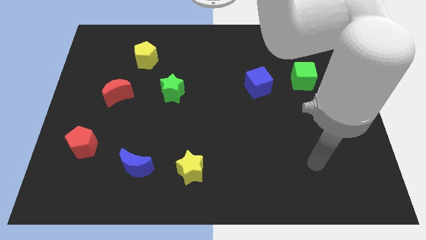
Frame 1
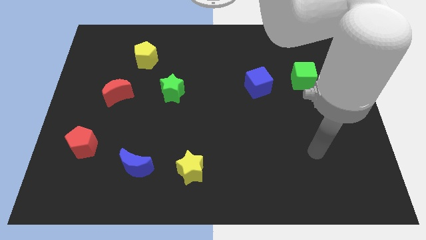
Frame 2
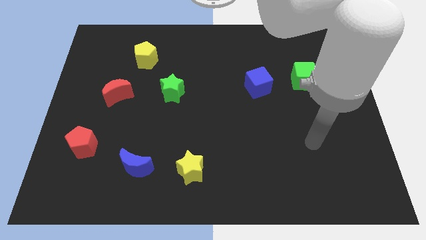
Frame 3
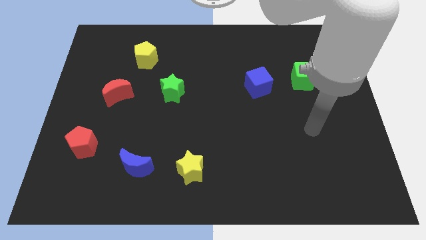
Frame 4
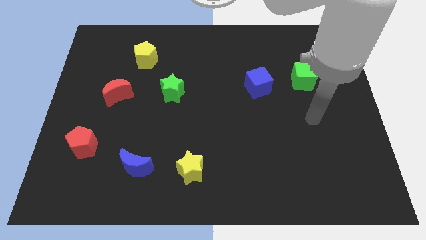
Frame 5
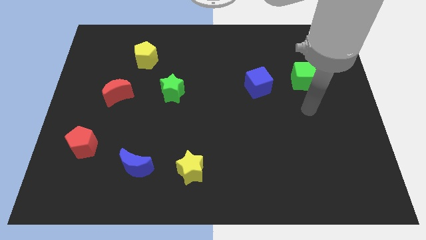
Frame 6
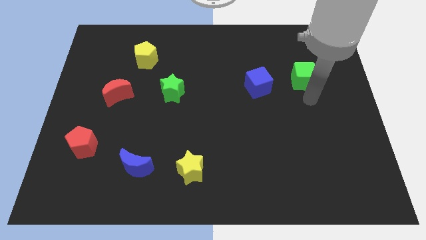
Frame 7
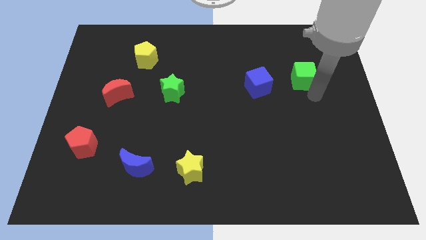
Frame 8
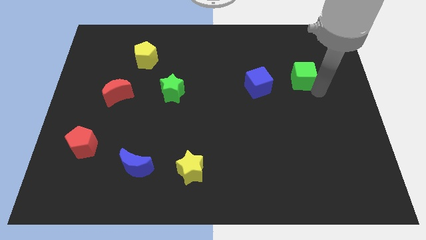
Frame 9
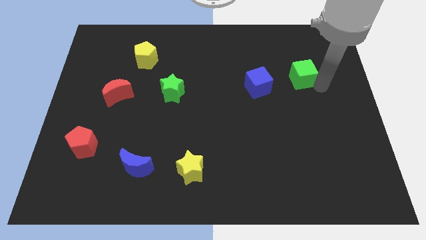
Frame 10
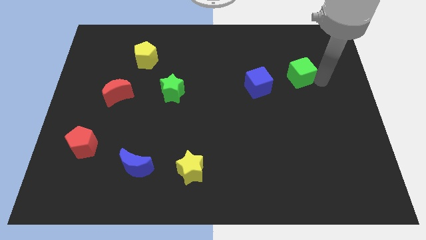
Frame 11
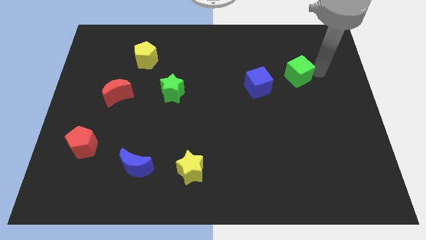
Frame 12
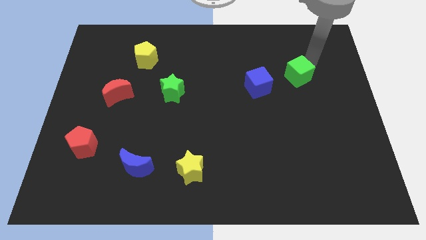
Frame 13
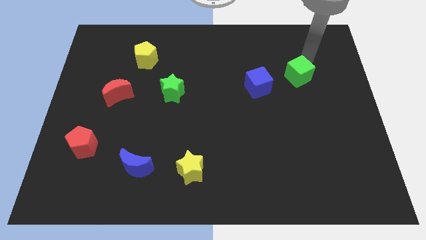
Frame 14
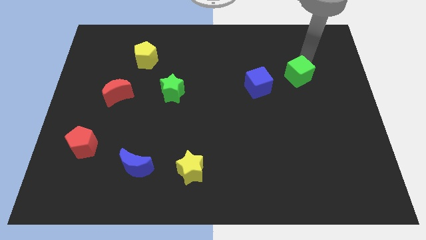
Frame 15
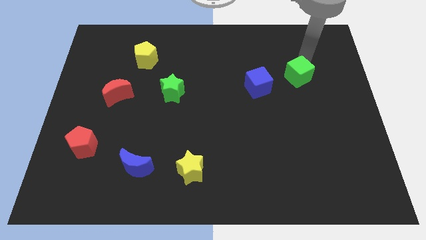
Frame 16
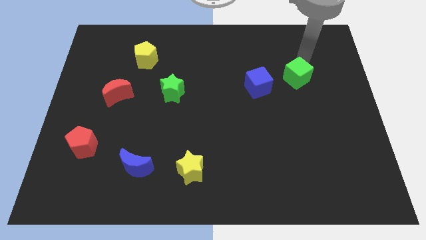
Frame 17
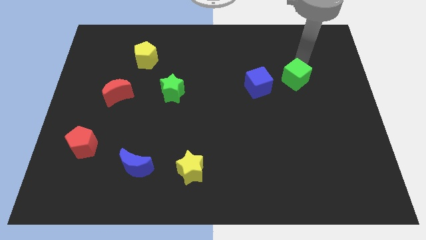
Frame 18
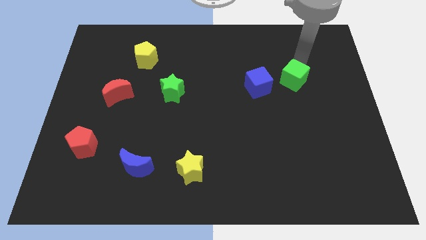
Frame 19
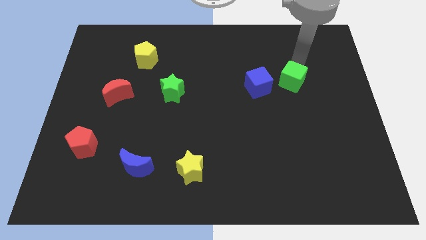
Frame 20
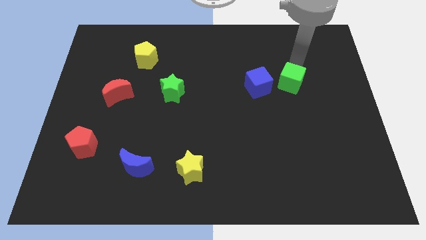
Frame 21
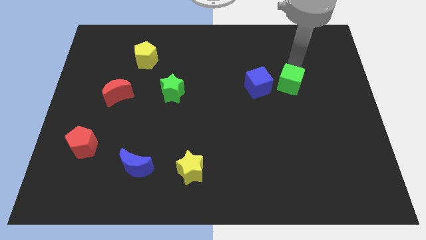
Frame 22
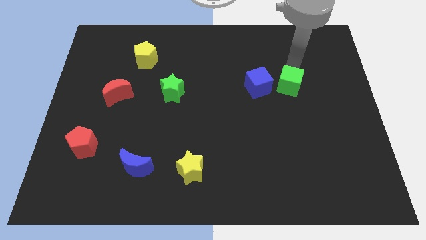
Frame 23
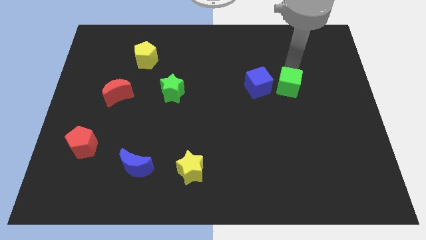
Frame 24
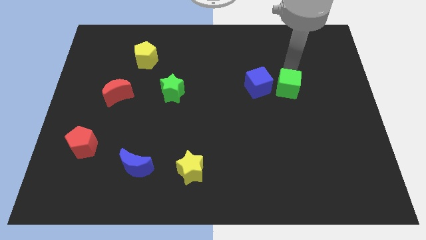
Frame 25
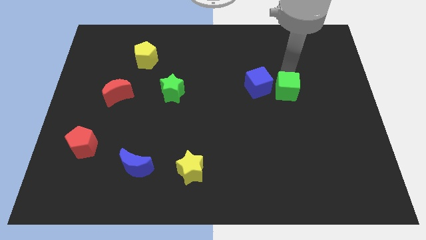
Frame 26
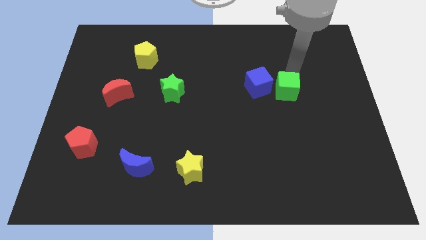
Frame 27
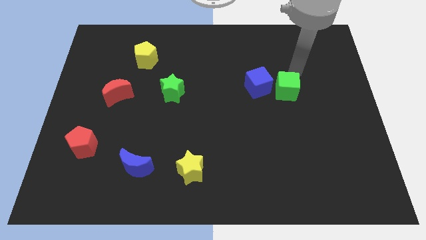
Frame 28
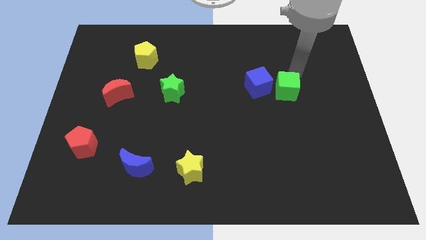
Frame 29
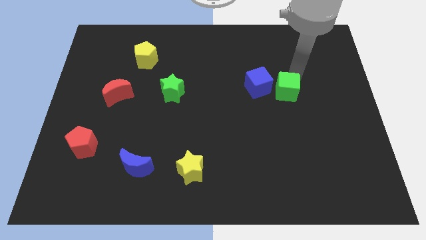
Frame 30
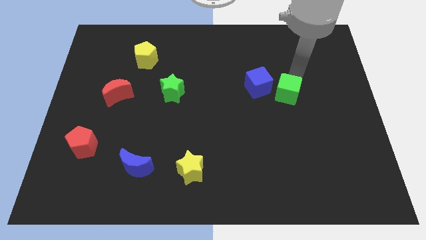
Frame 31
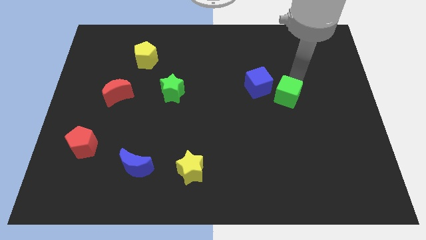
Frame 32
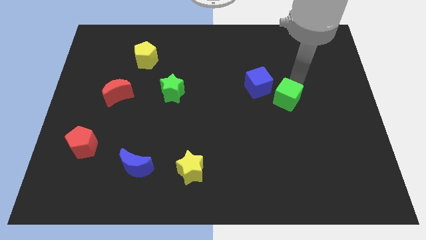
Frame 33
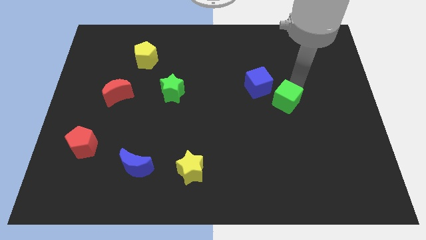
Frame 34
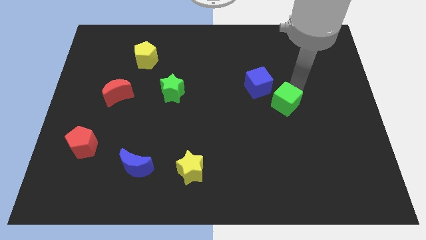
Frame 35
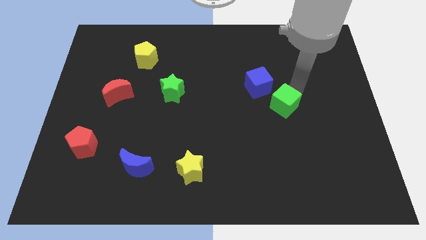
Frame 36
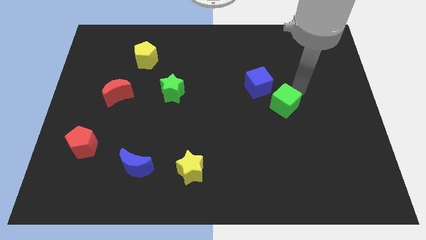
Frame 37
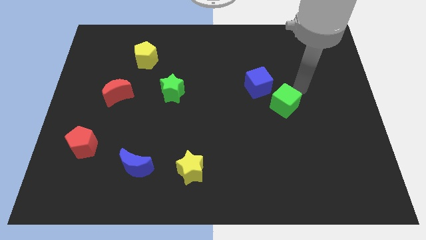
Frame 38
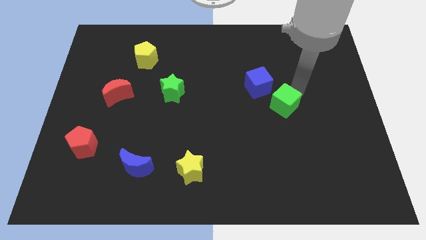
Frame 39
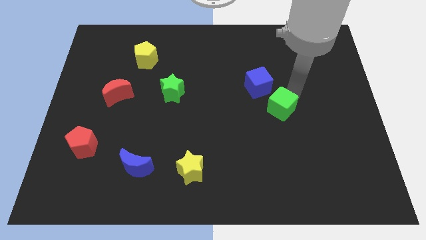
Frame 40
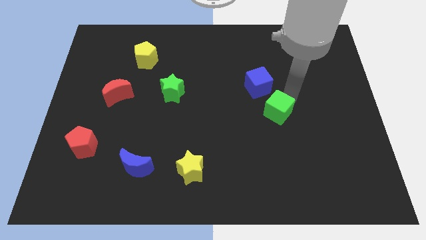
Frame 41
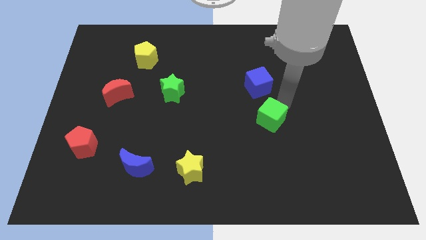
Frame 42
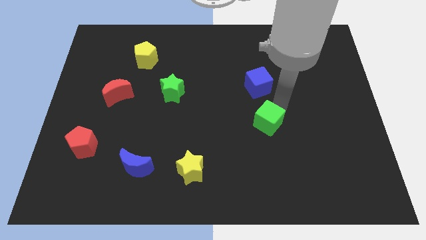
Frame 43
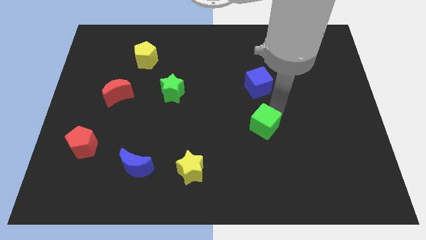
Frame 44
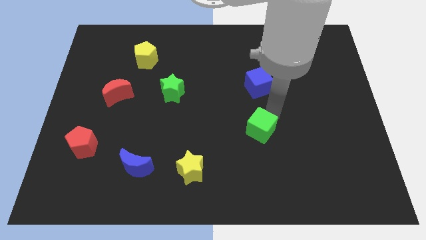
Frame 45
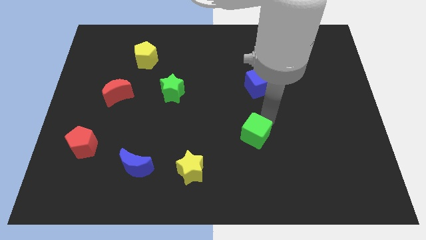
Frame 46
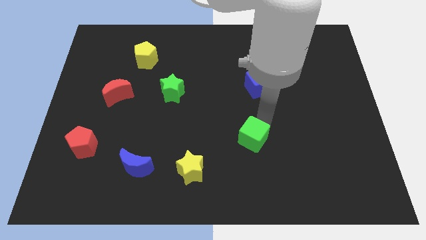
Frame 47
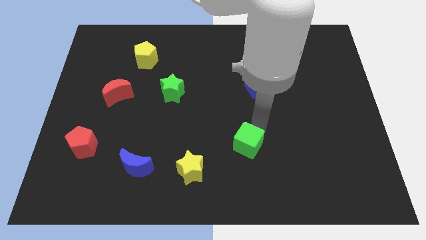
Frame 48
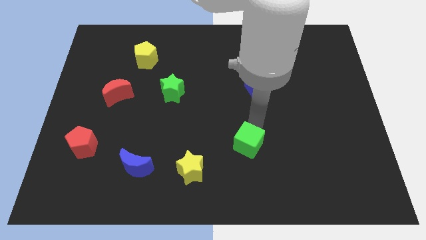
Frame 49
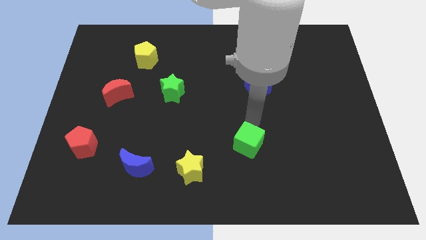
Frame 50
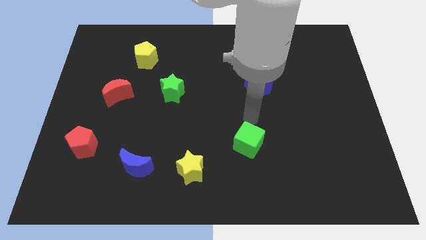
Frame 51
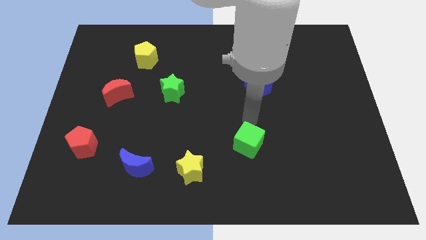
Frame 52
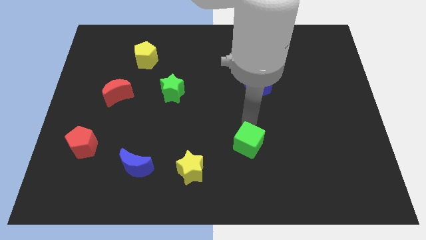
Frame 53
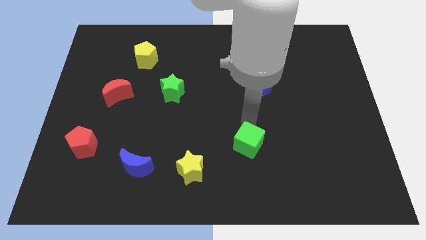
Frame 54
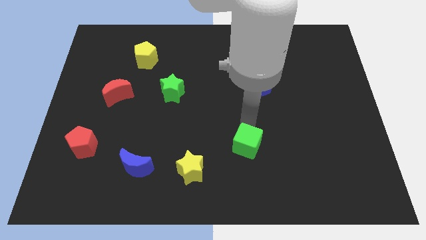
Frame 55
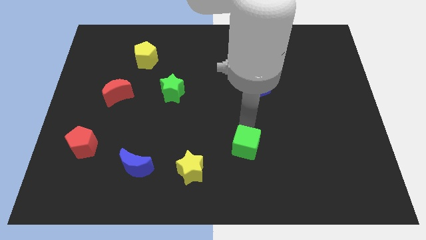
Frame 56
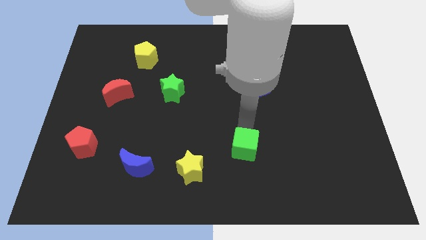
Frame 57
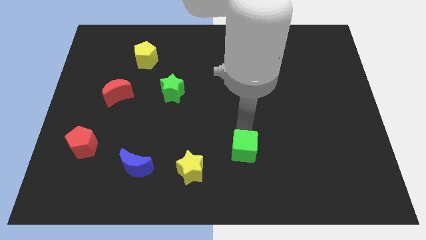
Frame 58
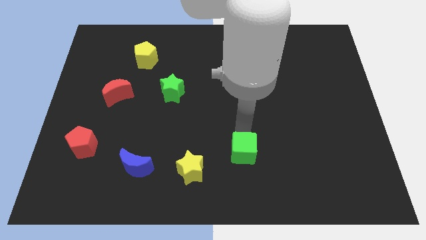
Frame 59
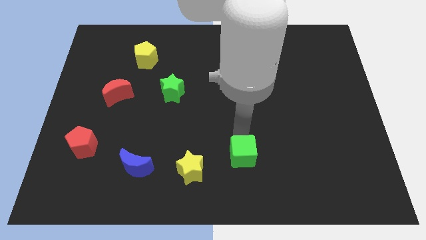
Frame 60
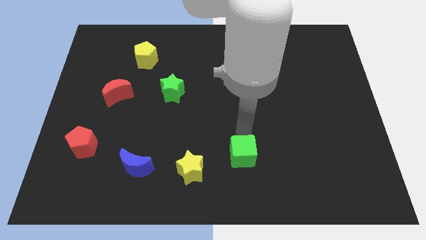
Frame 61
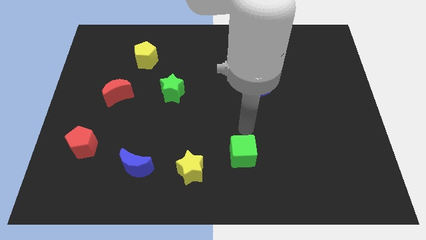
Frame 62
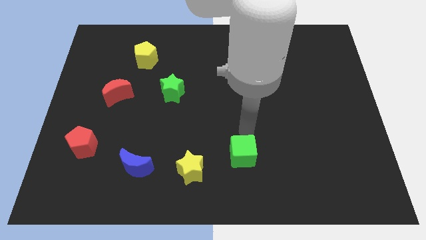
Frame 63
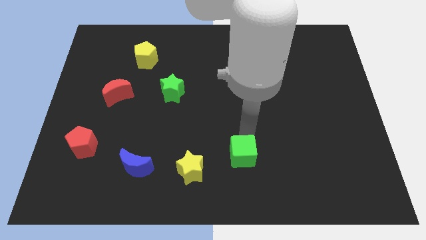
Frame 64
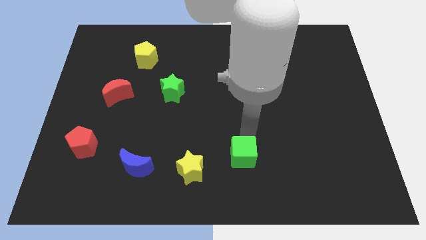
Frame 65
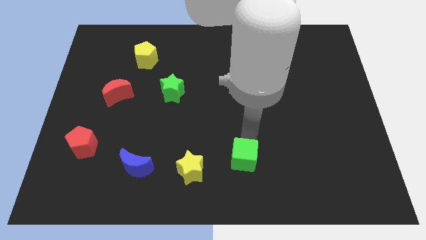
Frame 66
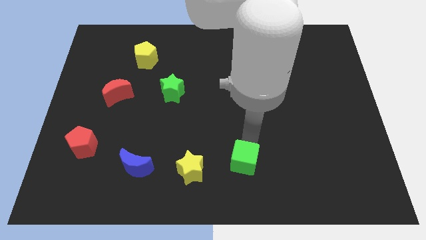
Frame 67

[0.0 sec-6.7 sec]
put the green cube to the bottom side
